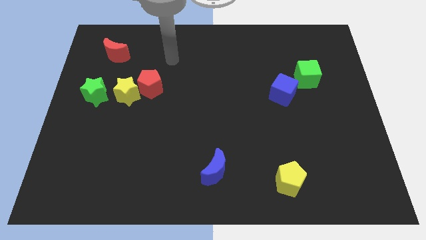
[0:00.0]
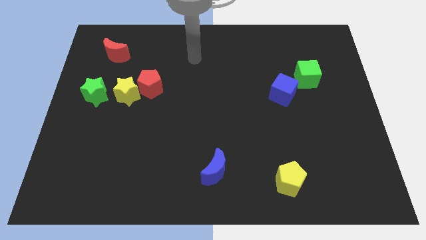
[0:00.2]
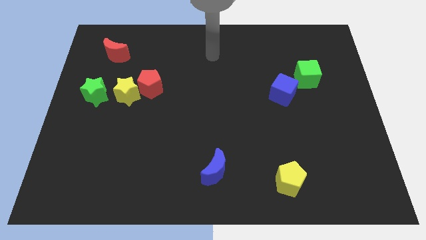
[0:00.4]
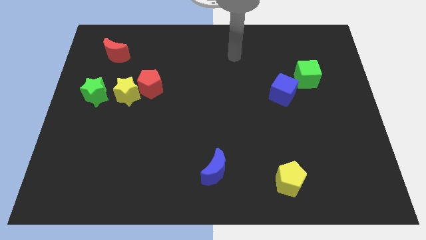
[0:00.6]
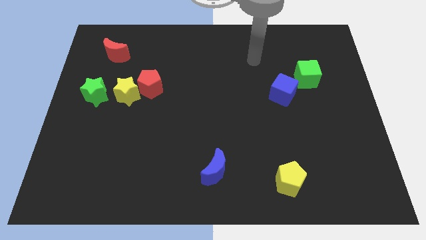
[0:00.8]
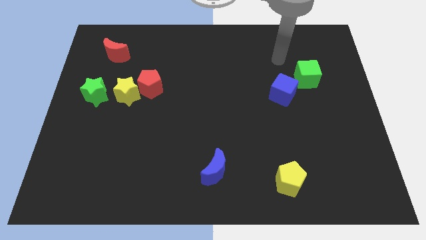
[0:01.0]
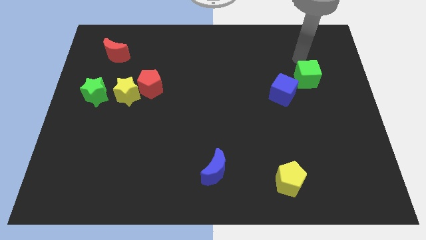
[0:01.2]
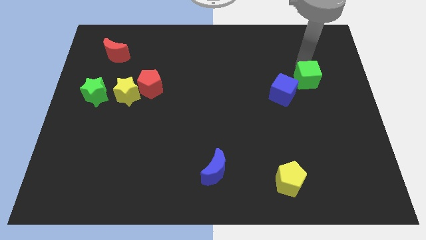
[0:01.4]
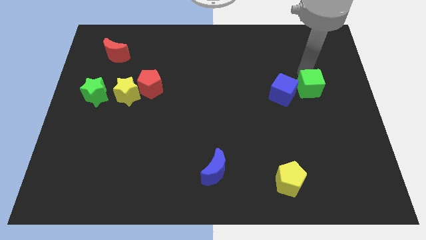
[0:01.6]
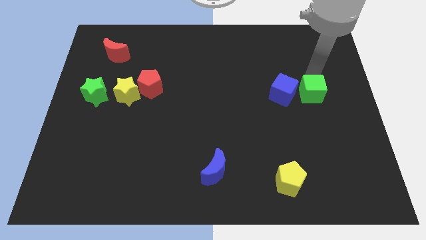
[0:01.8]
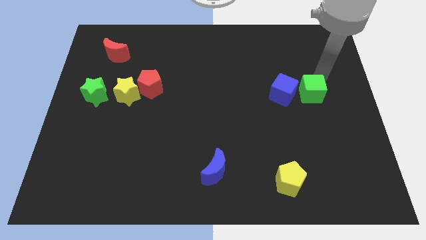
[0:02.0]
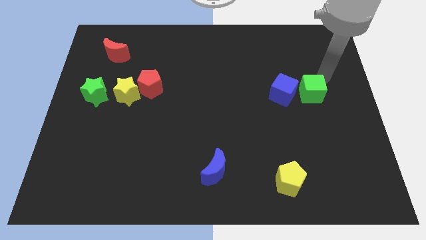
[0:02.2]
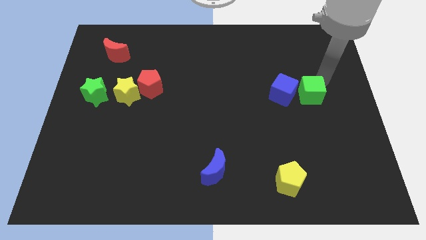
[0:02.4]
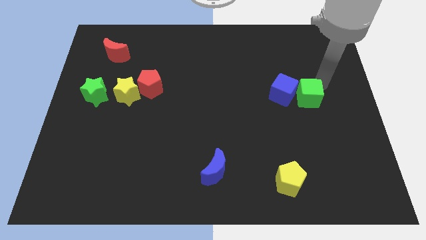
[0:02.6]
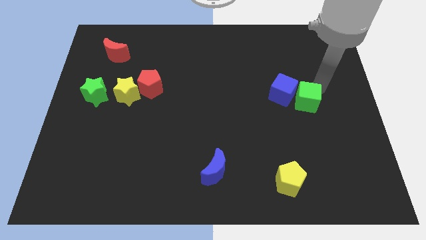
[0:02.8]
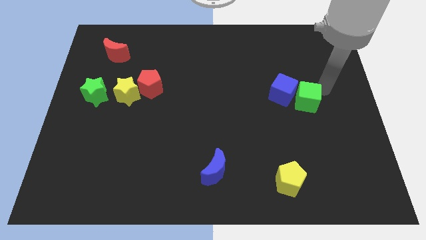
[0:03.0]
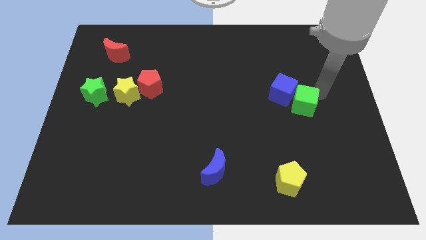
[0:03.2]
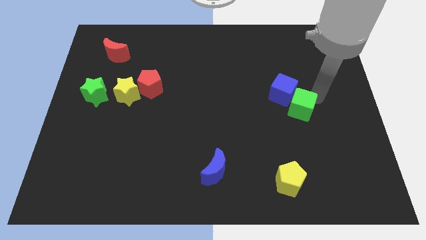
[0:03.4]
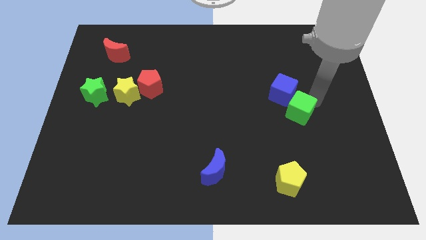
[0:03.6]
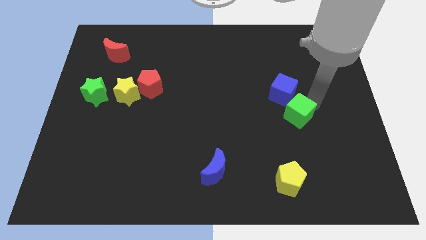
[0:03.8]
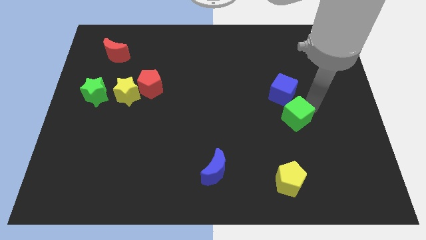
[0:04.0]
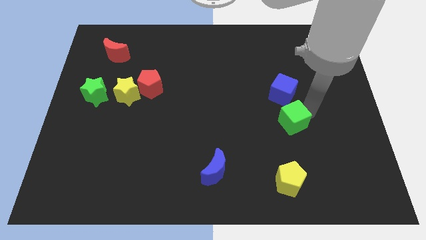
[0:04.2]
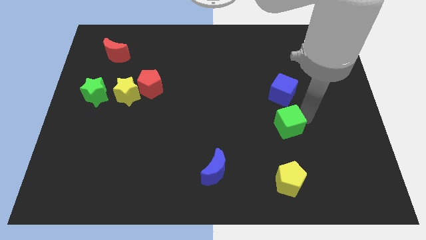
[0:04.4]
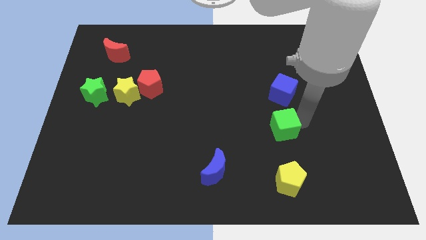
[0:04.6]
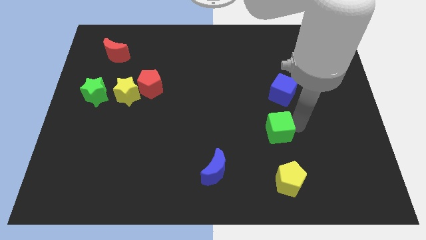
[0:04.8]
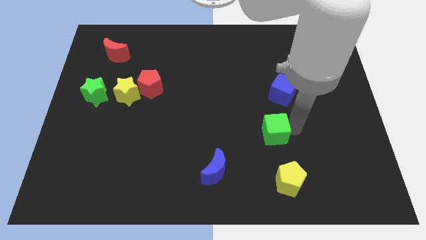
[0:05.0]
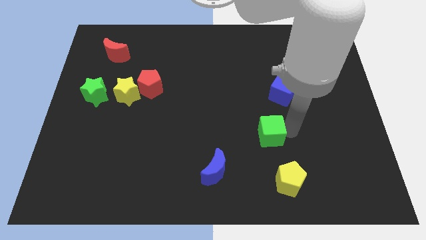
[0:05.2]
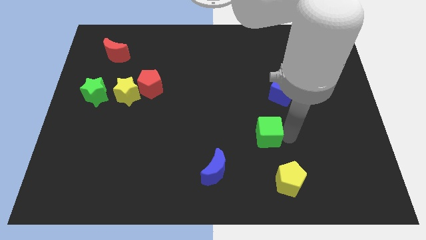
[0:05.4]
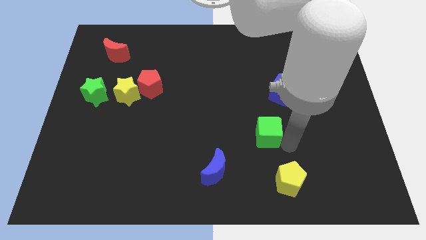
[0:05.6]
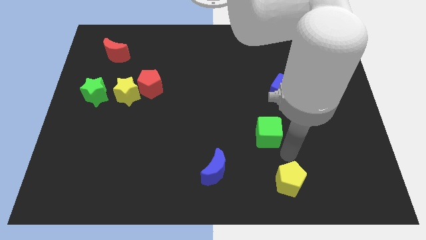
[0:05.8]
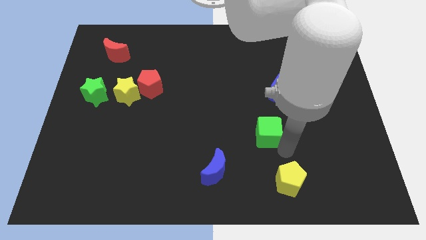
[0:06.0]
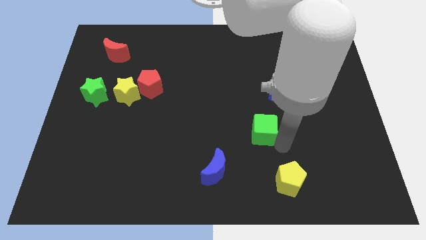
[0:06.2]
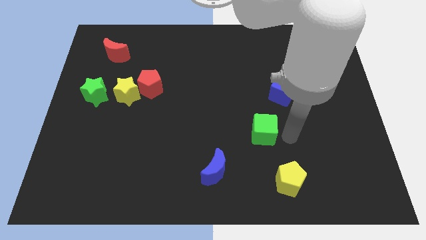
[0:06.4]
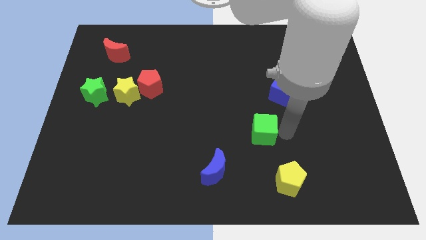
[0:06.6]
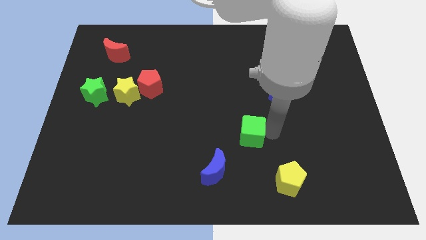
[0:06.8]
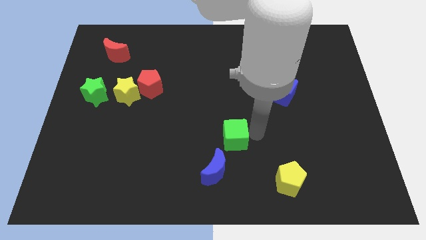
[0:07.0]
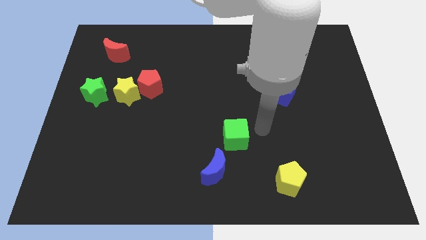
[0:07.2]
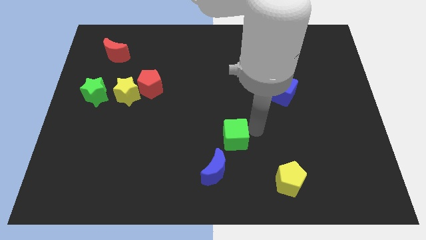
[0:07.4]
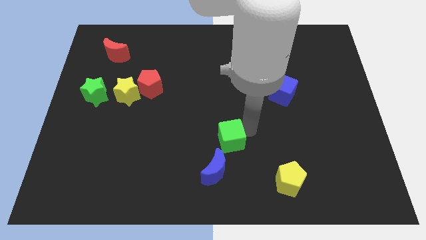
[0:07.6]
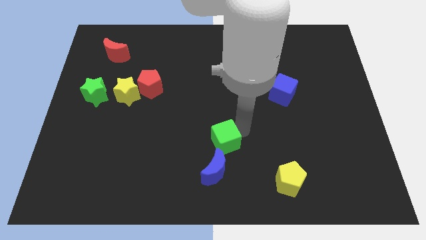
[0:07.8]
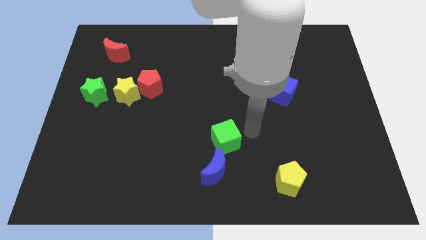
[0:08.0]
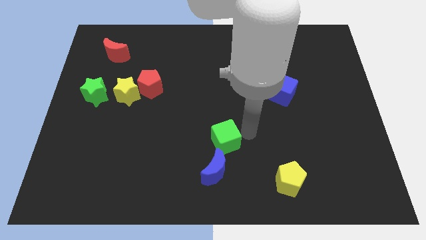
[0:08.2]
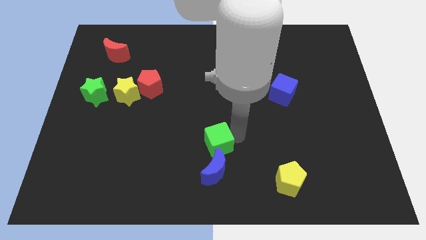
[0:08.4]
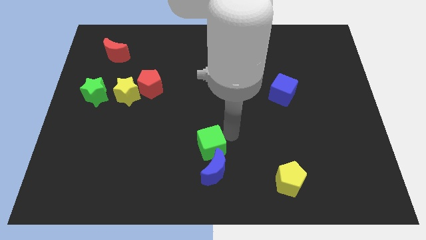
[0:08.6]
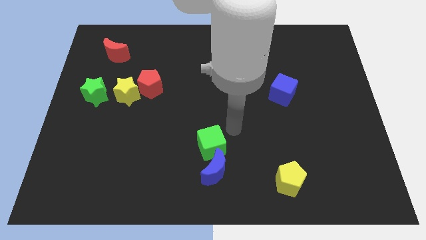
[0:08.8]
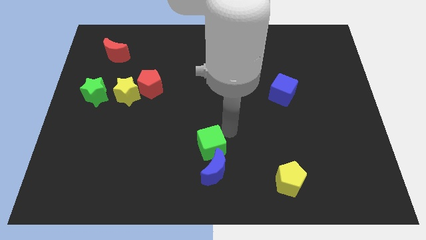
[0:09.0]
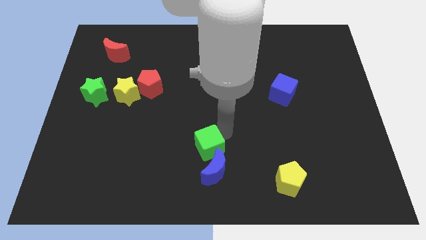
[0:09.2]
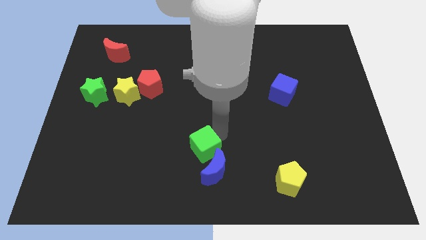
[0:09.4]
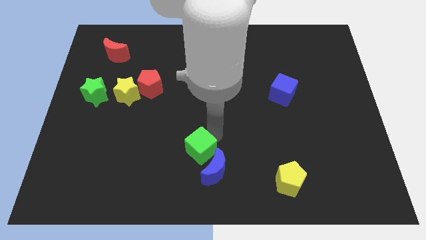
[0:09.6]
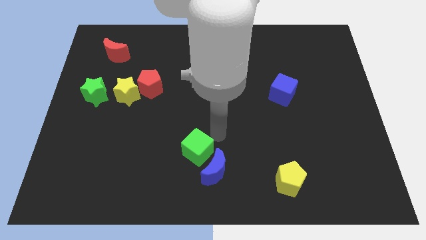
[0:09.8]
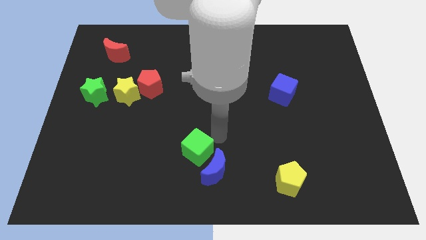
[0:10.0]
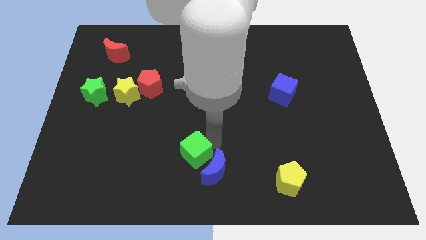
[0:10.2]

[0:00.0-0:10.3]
put the green cube just left of the blue moon

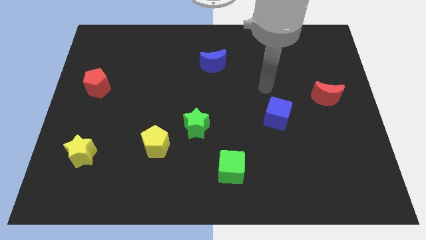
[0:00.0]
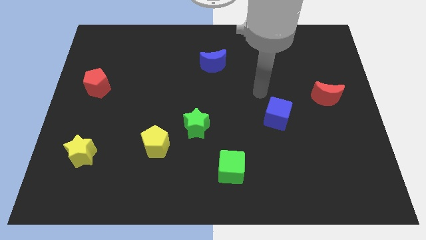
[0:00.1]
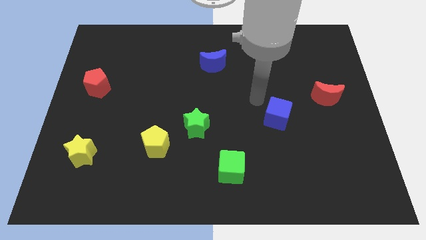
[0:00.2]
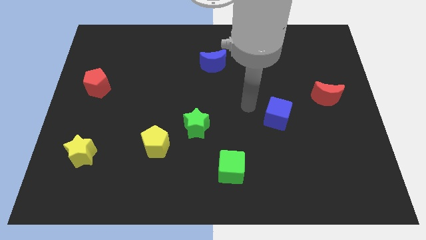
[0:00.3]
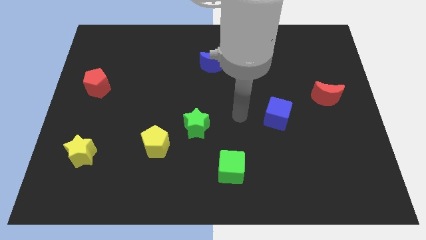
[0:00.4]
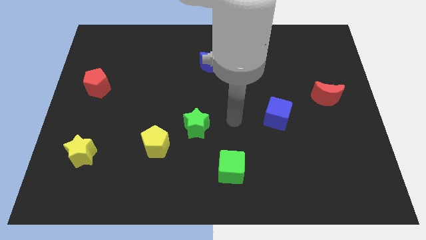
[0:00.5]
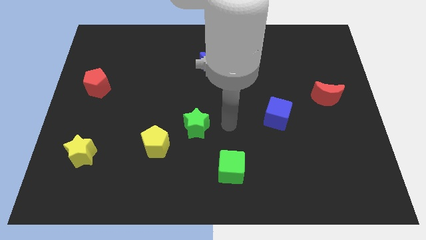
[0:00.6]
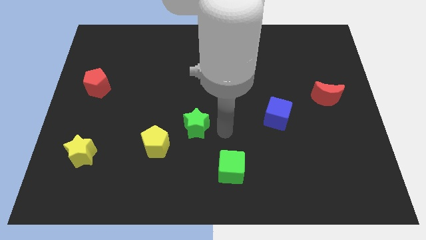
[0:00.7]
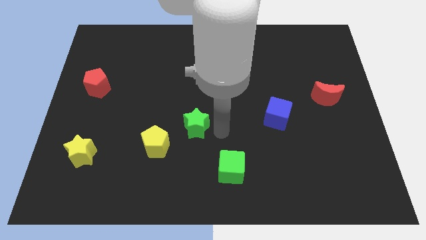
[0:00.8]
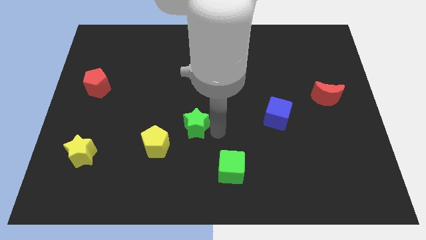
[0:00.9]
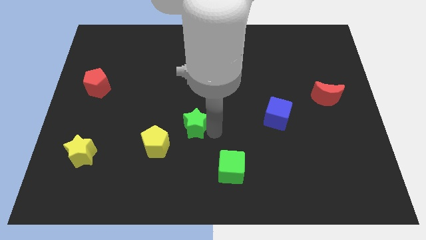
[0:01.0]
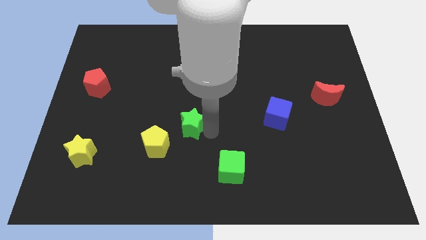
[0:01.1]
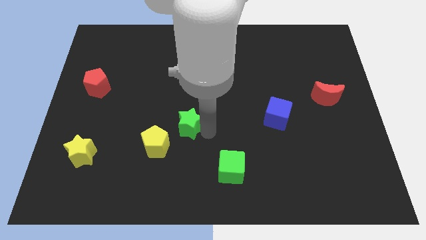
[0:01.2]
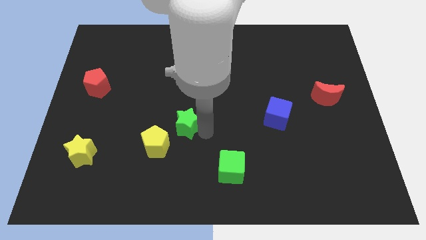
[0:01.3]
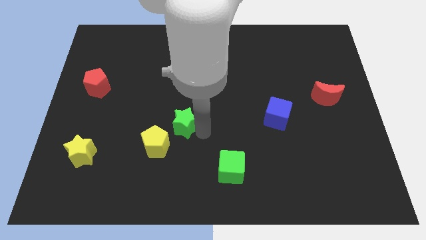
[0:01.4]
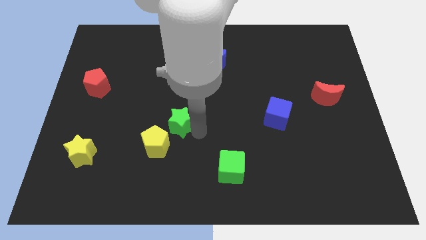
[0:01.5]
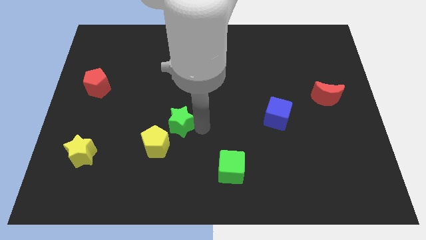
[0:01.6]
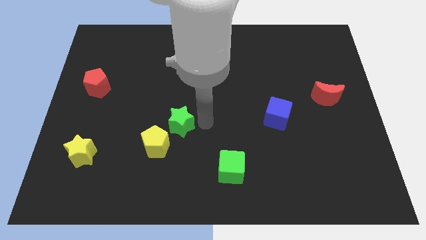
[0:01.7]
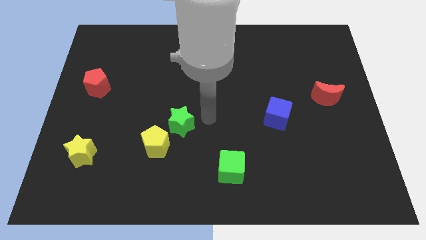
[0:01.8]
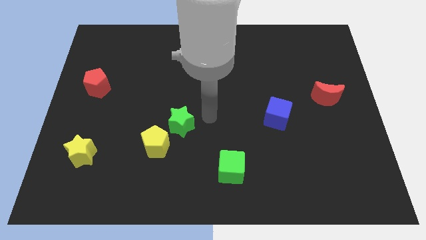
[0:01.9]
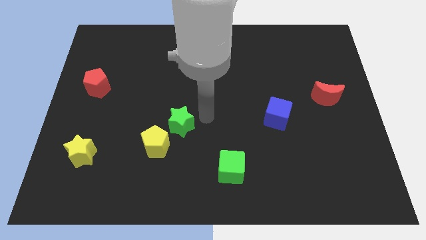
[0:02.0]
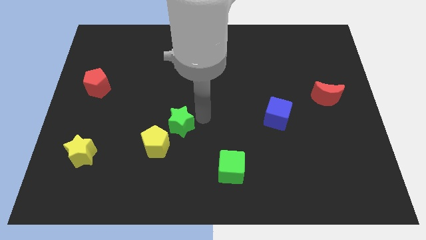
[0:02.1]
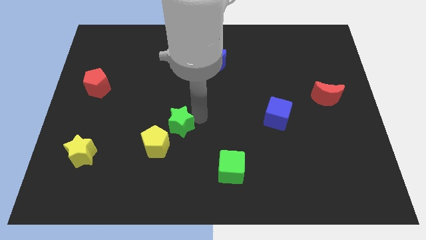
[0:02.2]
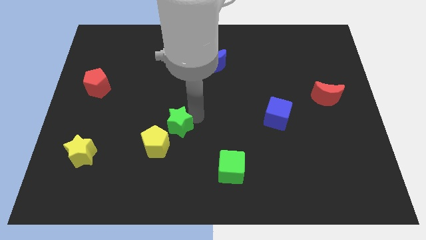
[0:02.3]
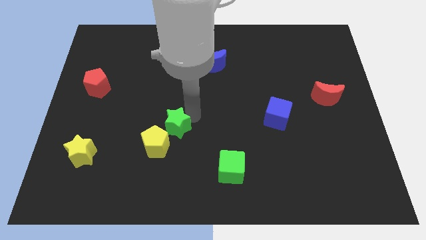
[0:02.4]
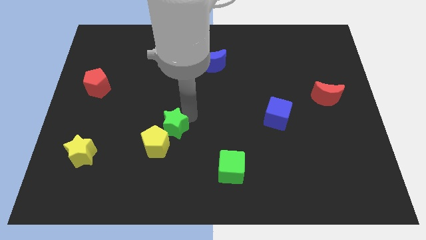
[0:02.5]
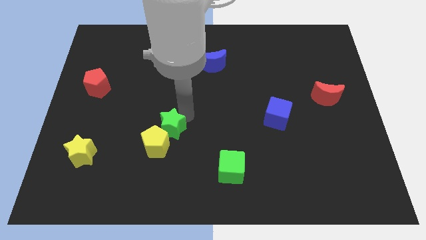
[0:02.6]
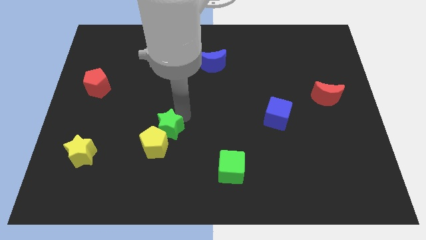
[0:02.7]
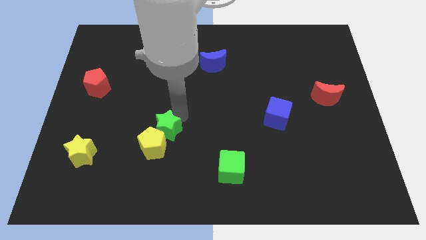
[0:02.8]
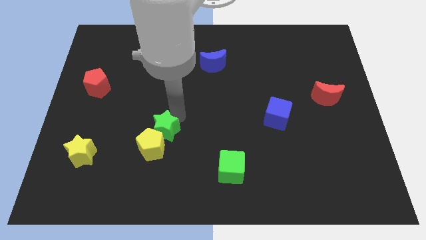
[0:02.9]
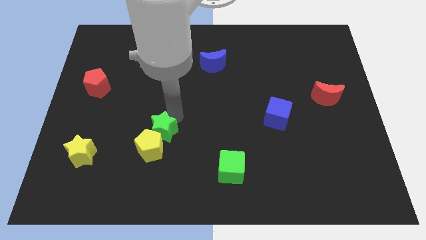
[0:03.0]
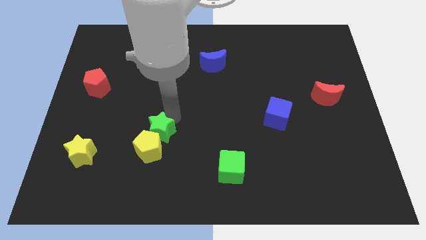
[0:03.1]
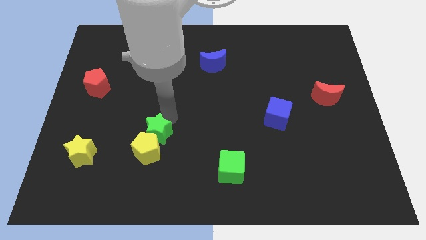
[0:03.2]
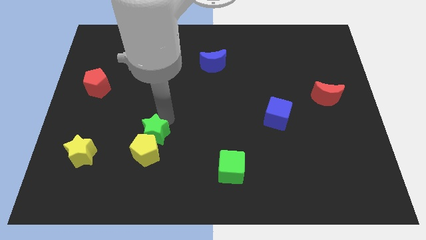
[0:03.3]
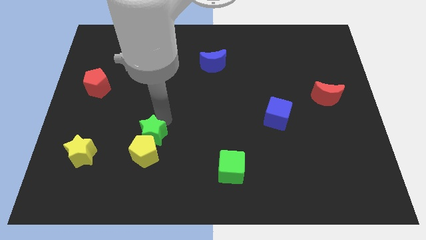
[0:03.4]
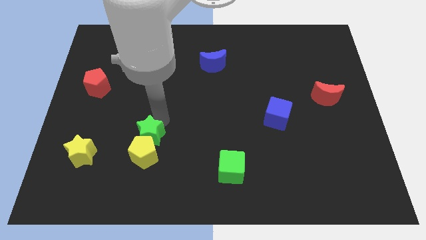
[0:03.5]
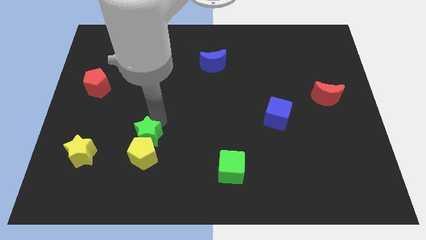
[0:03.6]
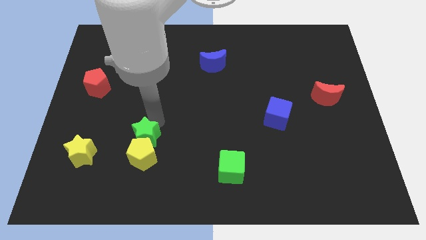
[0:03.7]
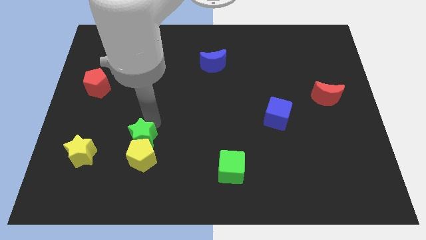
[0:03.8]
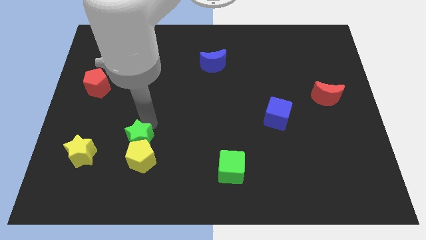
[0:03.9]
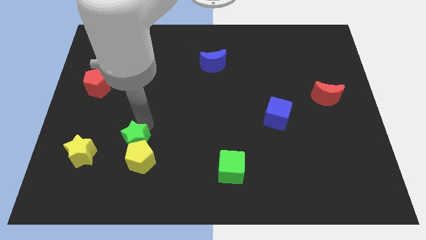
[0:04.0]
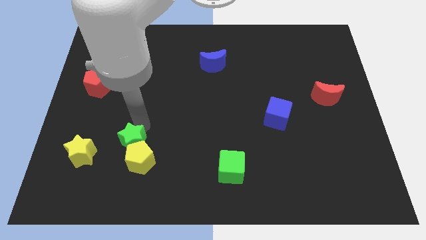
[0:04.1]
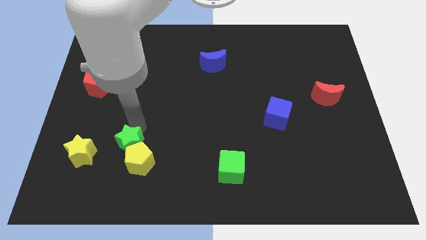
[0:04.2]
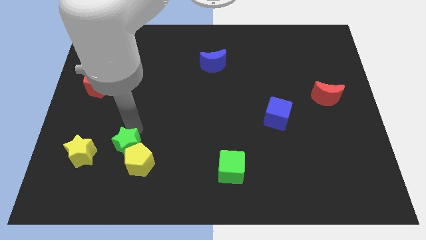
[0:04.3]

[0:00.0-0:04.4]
move the green star to the left side of the yellow pentagon
